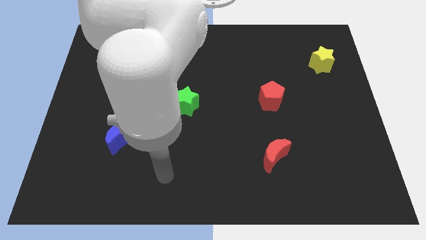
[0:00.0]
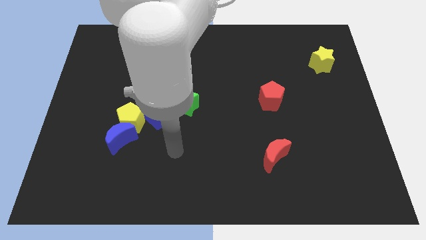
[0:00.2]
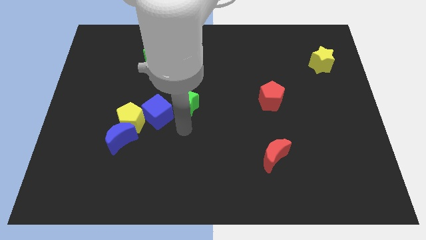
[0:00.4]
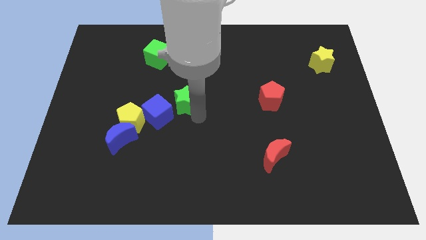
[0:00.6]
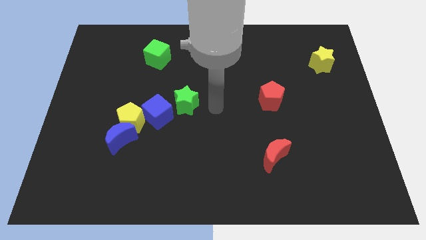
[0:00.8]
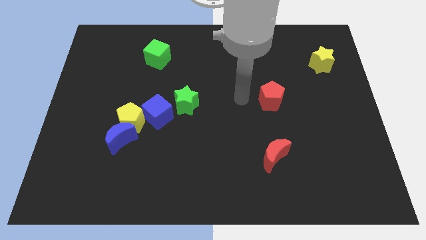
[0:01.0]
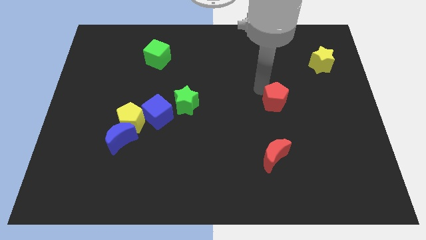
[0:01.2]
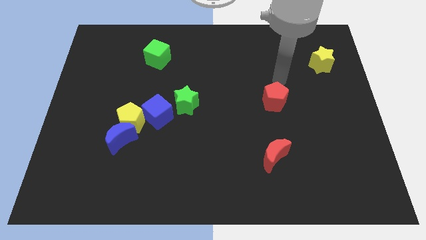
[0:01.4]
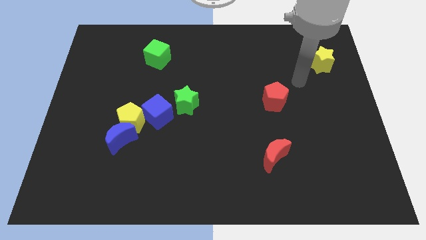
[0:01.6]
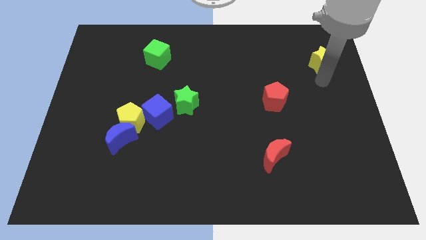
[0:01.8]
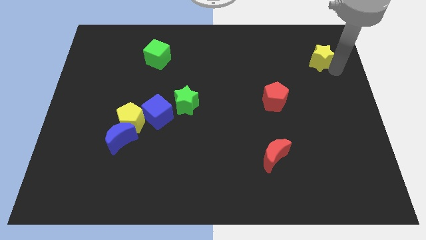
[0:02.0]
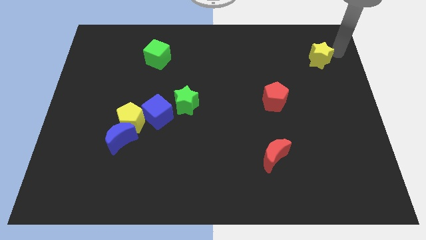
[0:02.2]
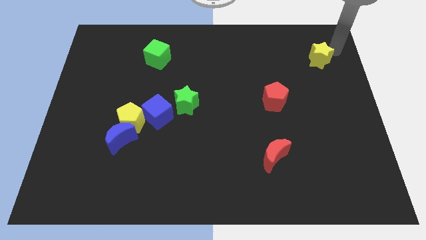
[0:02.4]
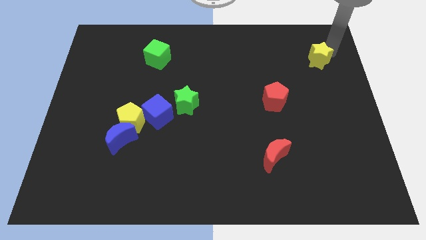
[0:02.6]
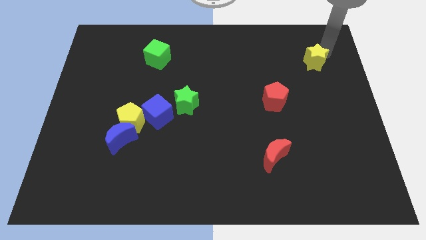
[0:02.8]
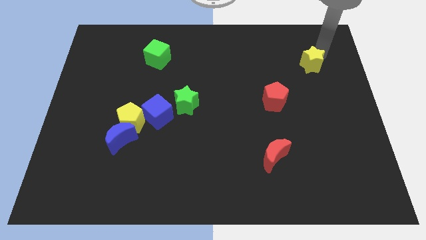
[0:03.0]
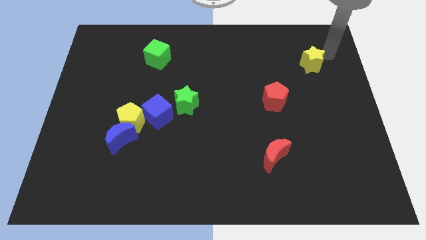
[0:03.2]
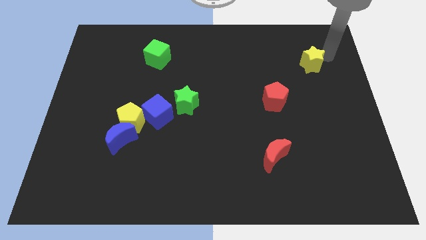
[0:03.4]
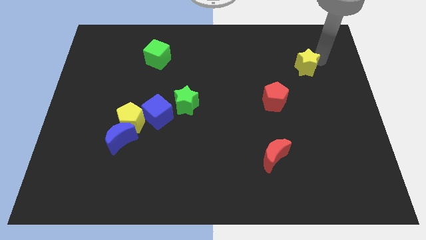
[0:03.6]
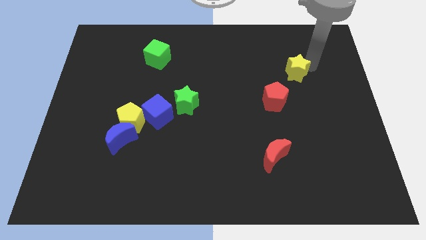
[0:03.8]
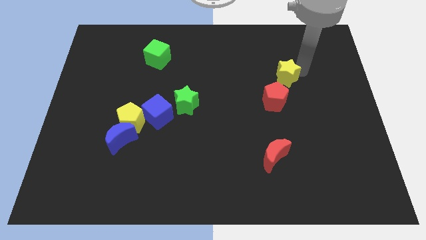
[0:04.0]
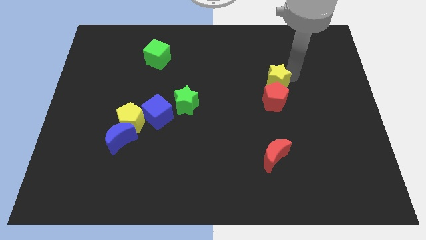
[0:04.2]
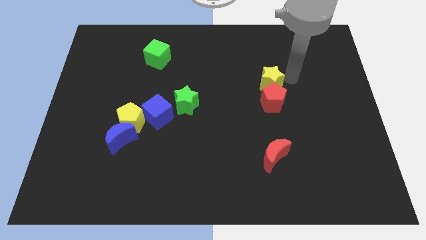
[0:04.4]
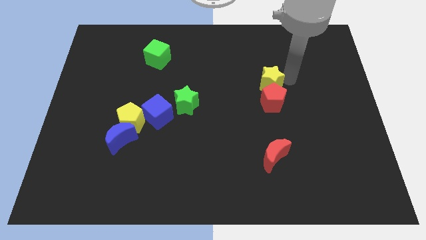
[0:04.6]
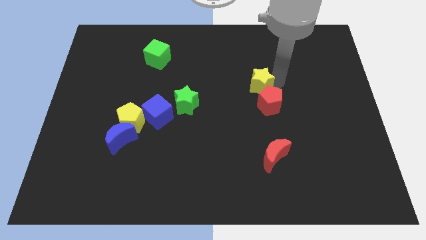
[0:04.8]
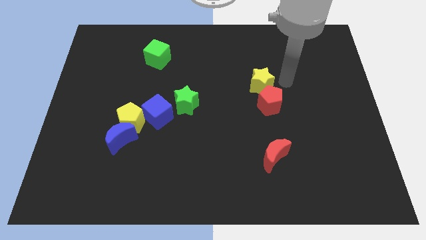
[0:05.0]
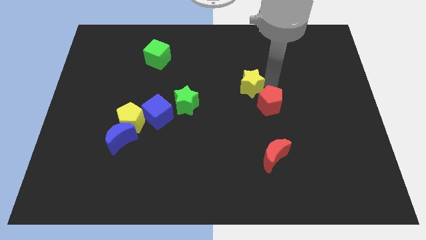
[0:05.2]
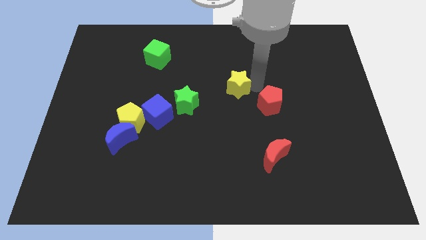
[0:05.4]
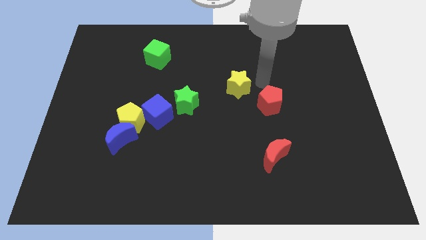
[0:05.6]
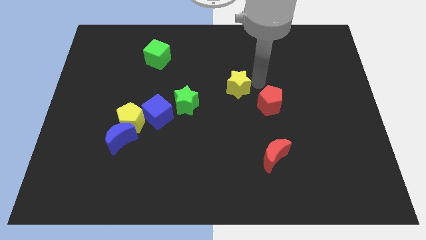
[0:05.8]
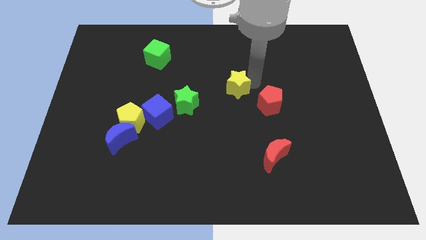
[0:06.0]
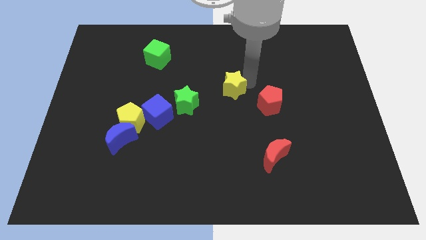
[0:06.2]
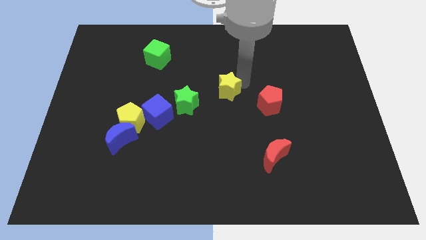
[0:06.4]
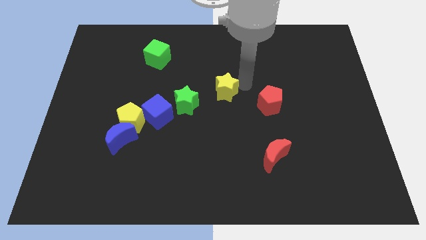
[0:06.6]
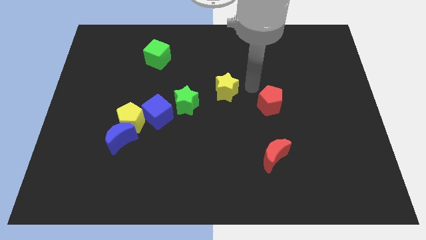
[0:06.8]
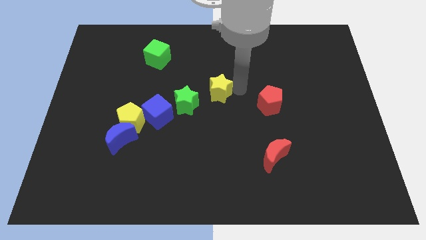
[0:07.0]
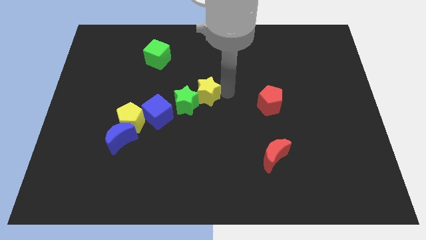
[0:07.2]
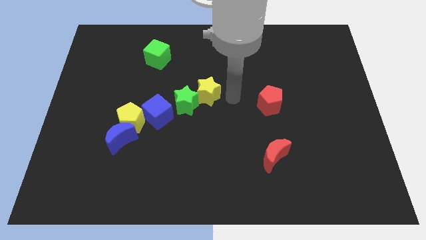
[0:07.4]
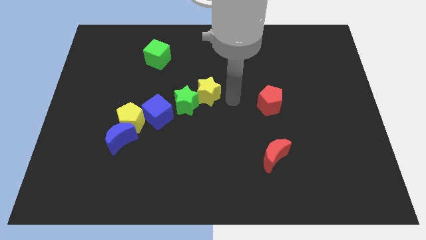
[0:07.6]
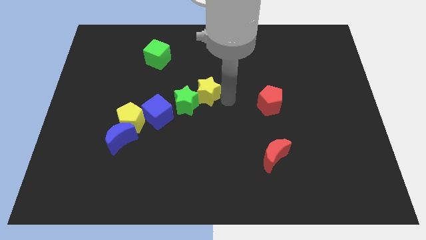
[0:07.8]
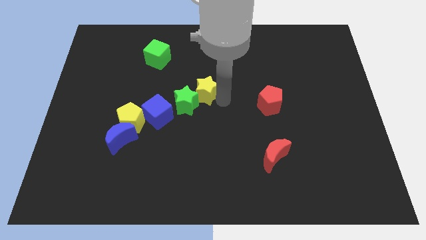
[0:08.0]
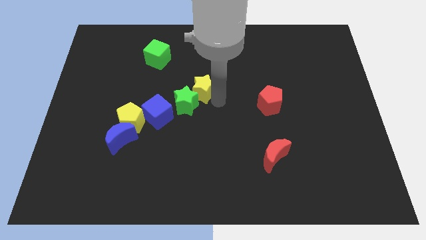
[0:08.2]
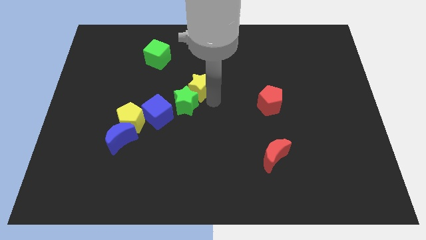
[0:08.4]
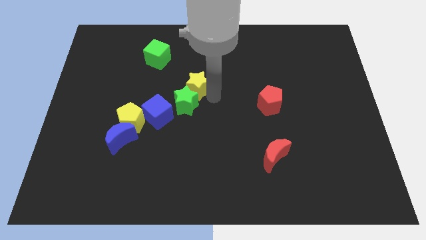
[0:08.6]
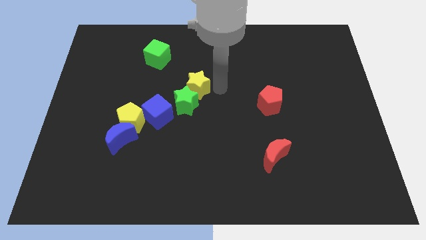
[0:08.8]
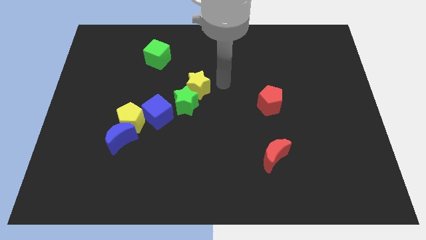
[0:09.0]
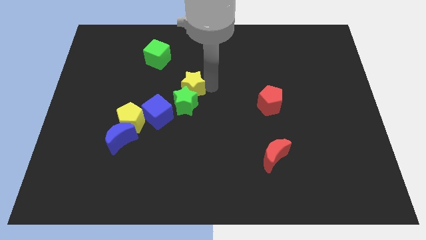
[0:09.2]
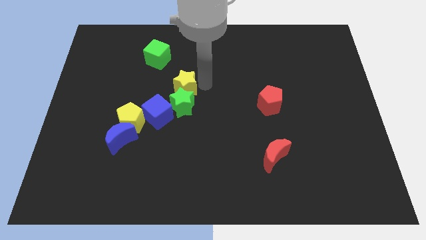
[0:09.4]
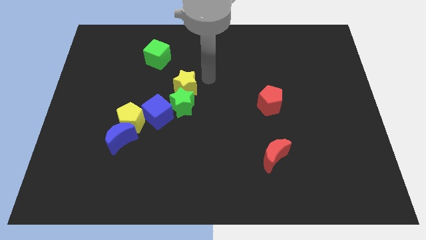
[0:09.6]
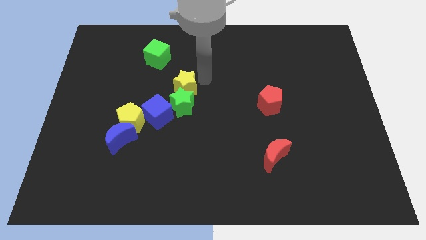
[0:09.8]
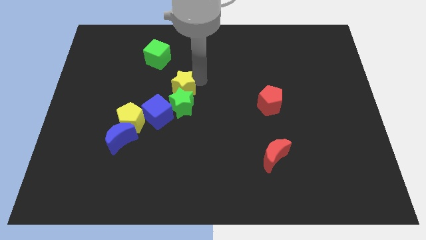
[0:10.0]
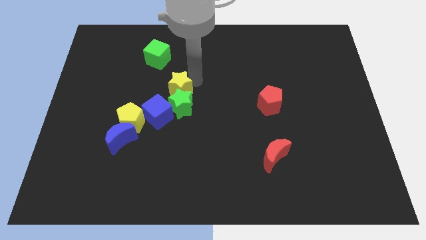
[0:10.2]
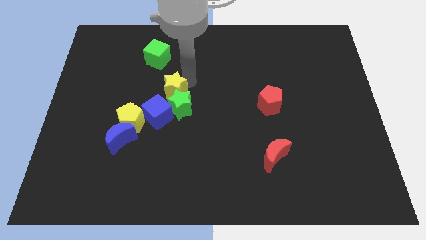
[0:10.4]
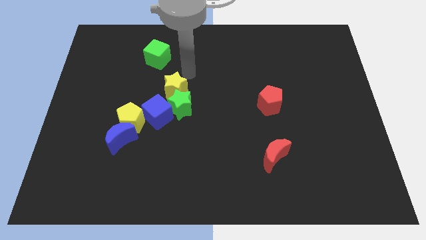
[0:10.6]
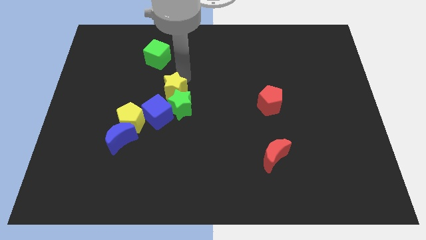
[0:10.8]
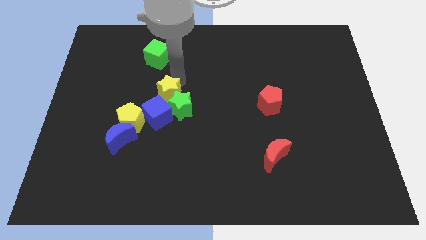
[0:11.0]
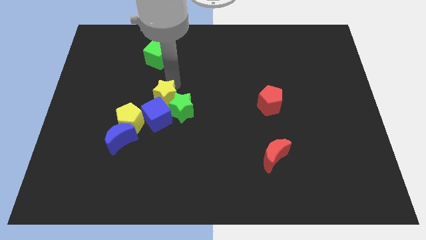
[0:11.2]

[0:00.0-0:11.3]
slide the yellow star next to the blue cube
